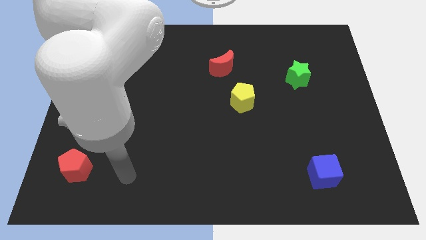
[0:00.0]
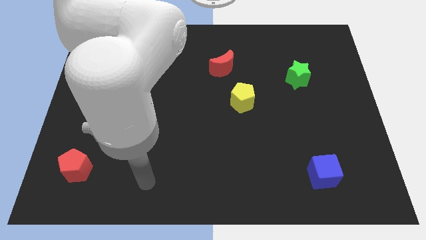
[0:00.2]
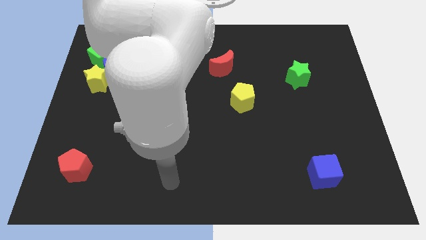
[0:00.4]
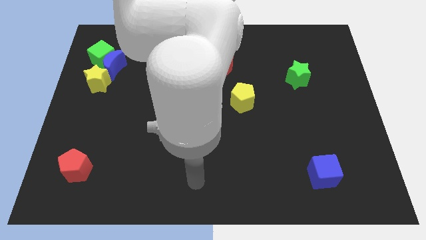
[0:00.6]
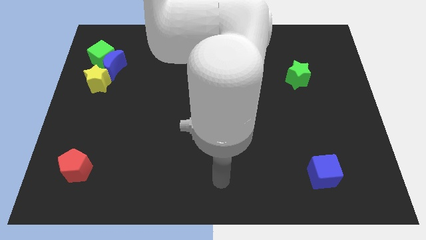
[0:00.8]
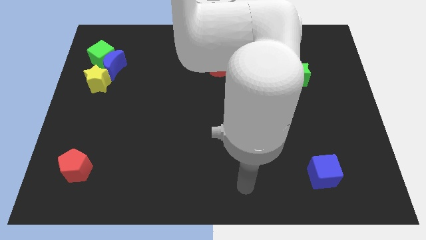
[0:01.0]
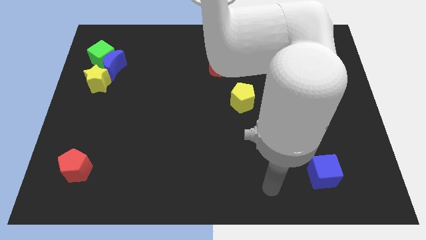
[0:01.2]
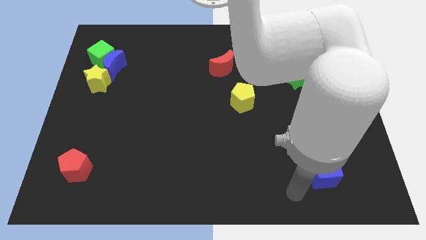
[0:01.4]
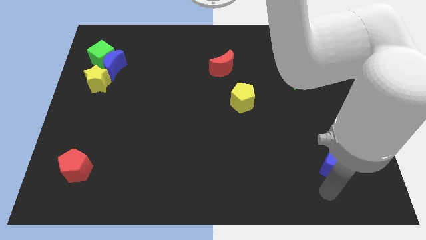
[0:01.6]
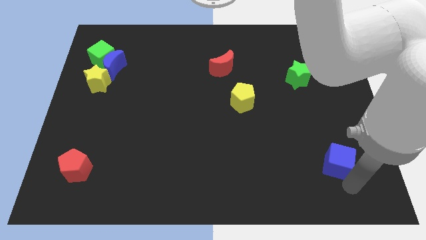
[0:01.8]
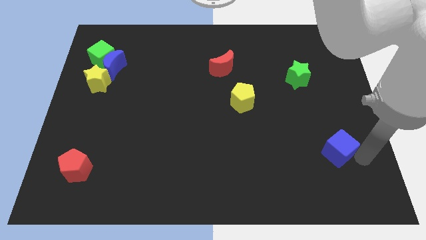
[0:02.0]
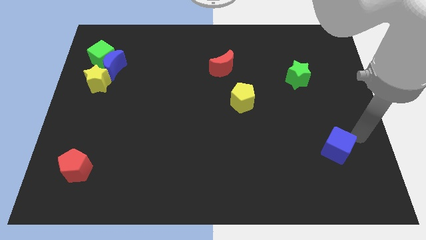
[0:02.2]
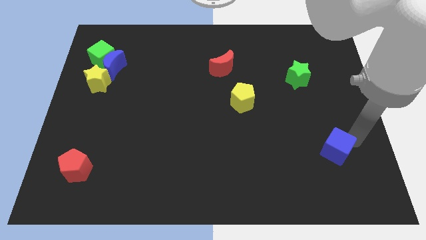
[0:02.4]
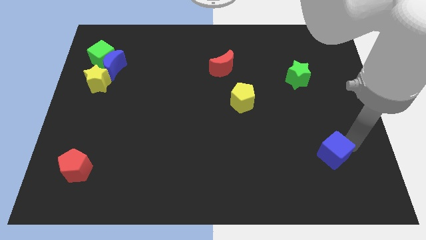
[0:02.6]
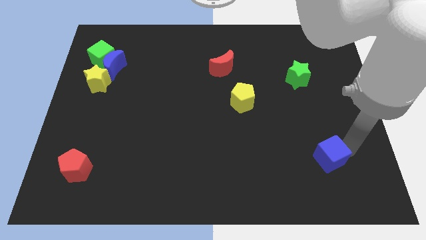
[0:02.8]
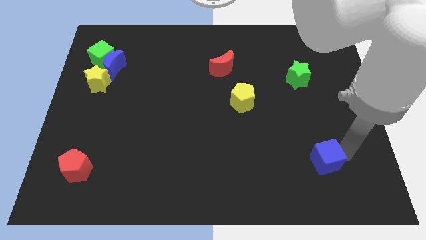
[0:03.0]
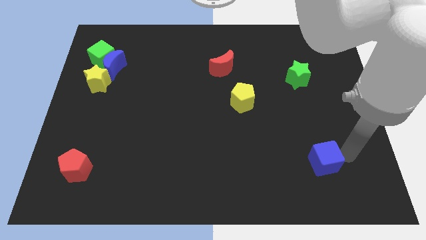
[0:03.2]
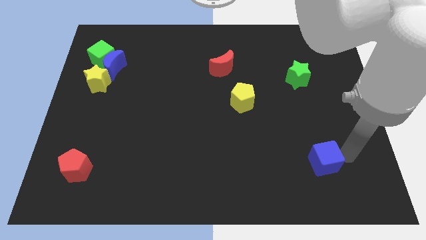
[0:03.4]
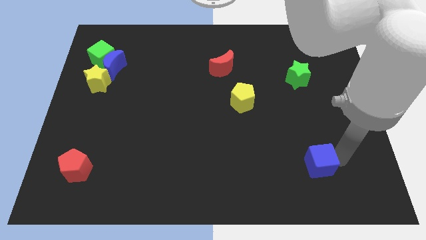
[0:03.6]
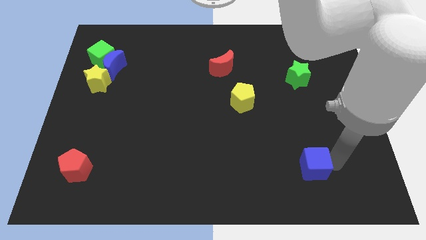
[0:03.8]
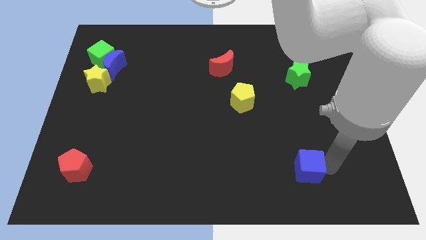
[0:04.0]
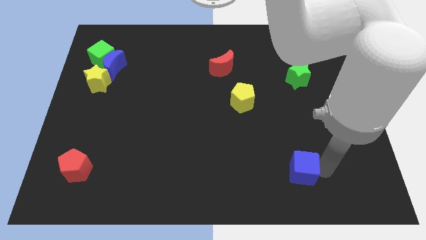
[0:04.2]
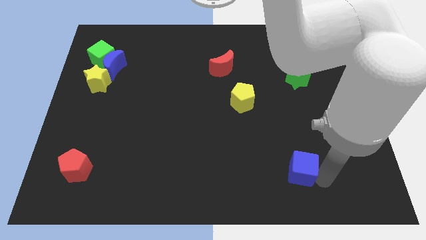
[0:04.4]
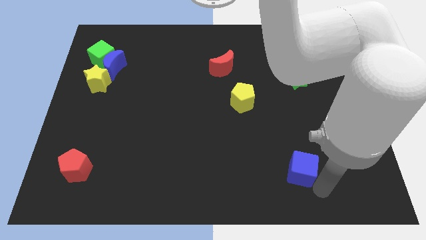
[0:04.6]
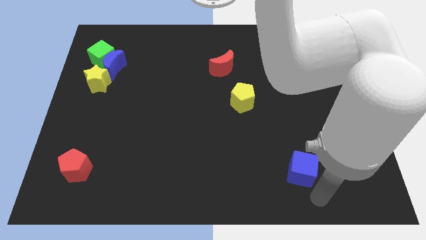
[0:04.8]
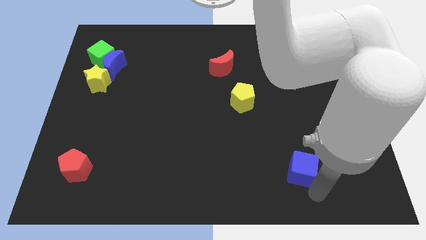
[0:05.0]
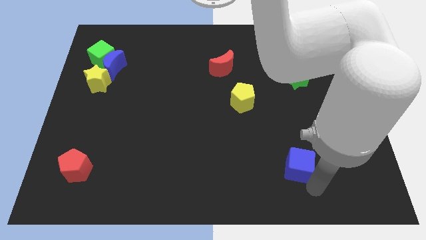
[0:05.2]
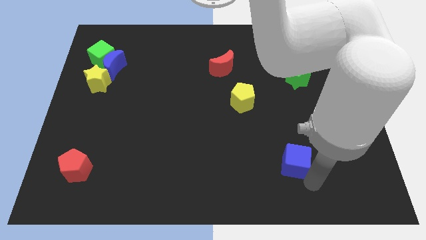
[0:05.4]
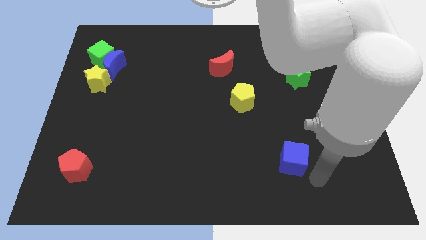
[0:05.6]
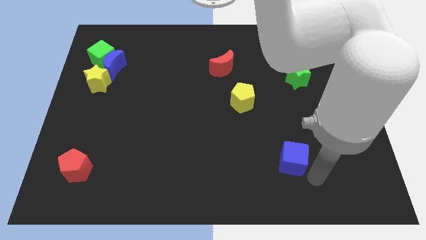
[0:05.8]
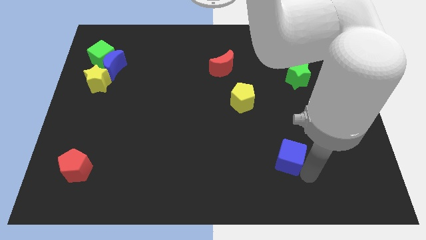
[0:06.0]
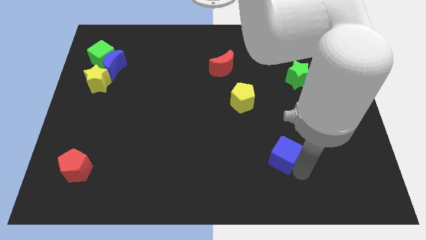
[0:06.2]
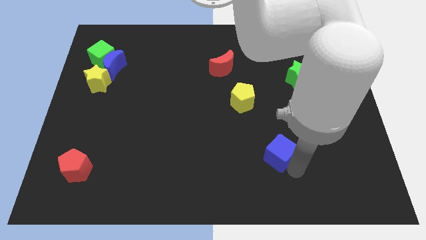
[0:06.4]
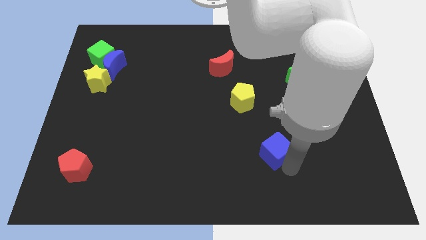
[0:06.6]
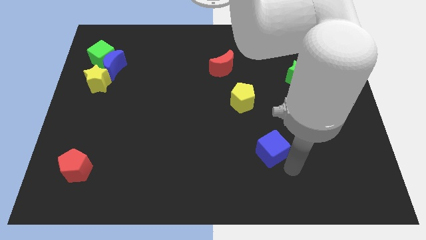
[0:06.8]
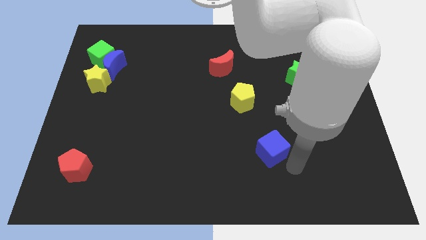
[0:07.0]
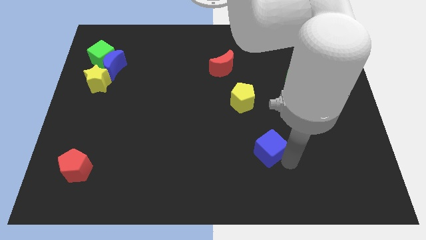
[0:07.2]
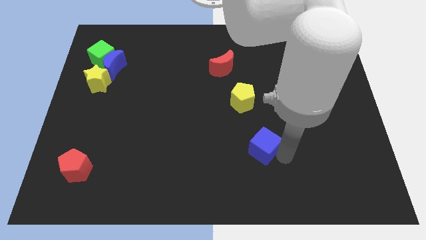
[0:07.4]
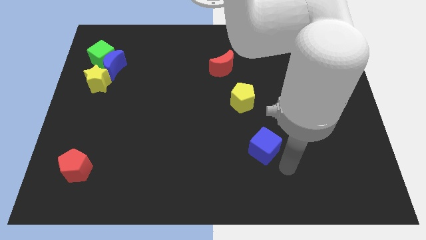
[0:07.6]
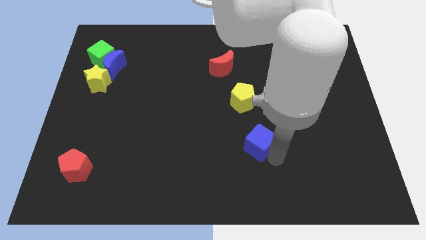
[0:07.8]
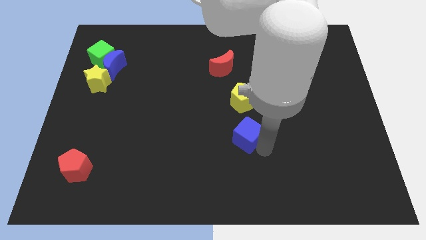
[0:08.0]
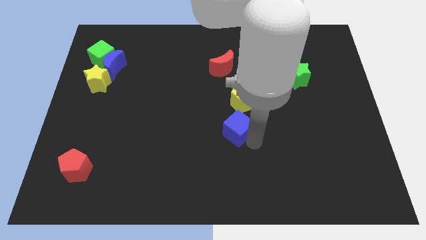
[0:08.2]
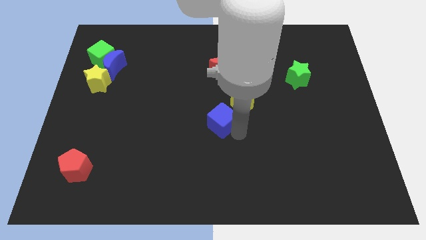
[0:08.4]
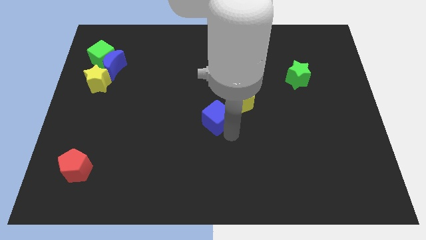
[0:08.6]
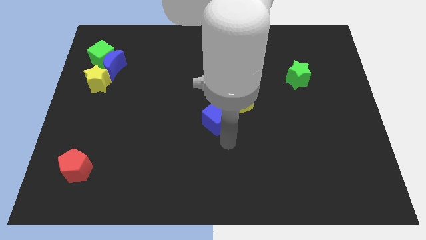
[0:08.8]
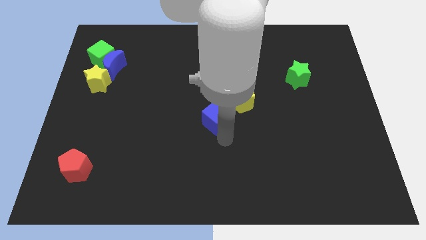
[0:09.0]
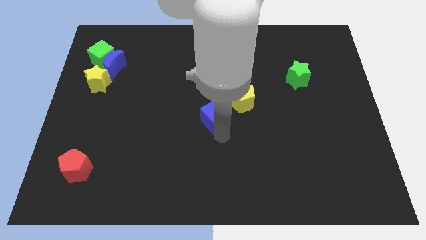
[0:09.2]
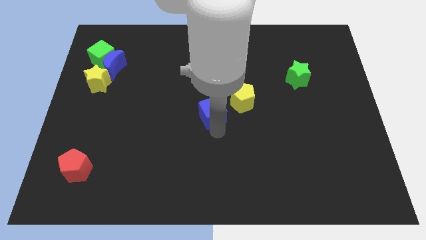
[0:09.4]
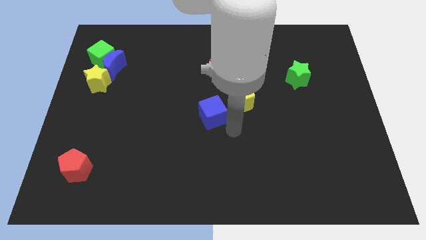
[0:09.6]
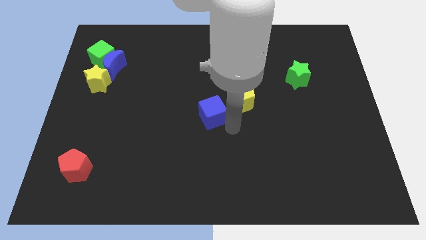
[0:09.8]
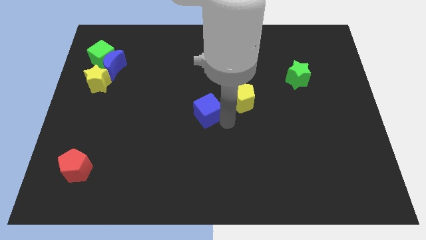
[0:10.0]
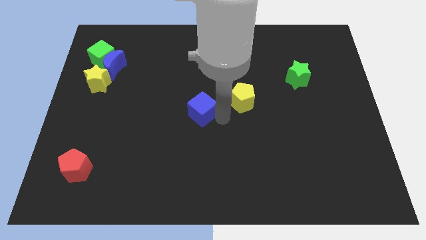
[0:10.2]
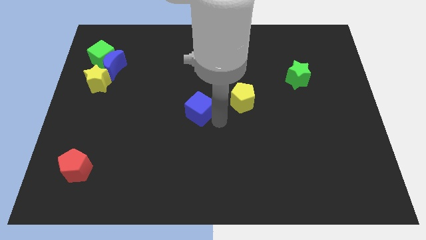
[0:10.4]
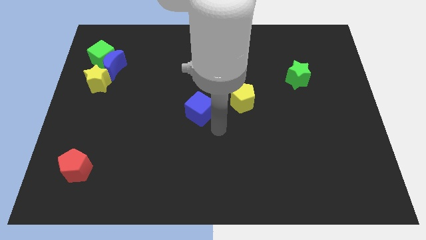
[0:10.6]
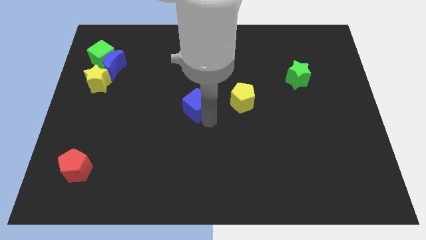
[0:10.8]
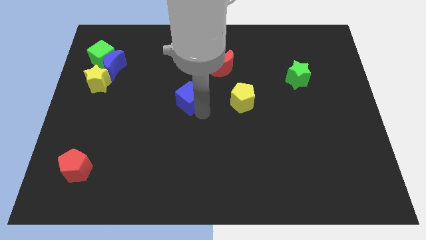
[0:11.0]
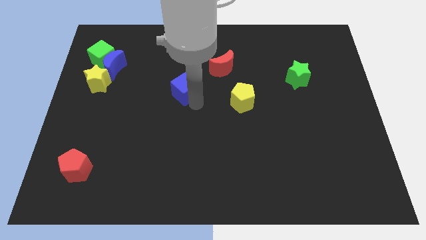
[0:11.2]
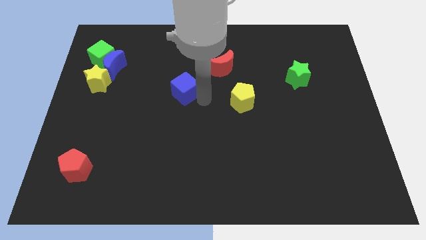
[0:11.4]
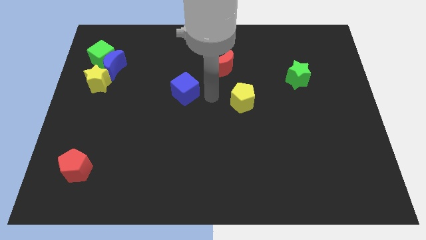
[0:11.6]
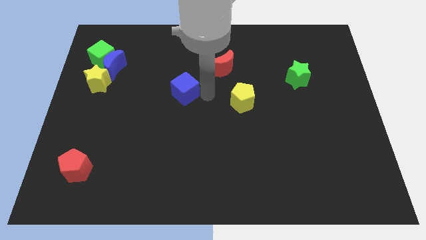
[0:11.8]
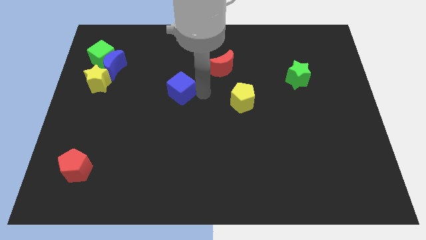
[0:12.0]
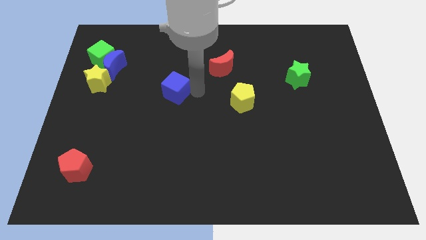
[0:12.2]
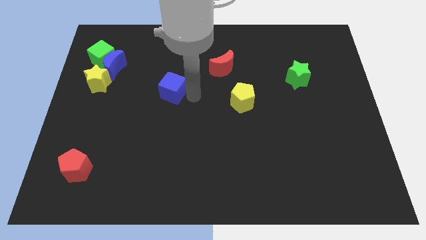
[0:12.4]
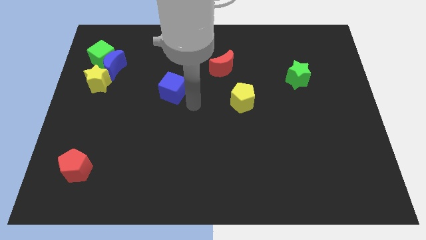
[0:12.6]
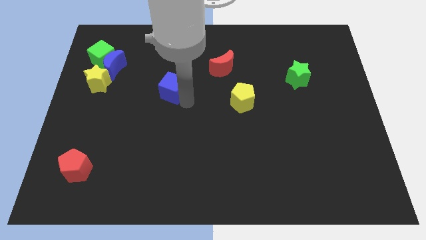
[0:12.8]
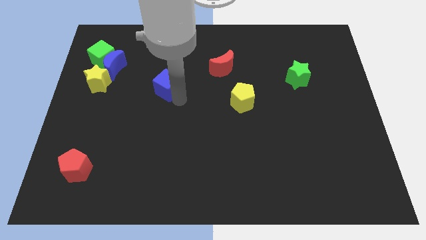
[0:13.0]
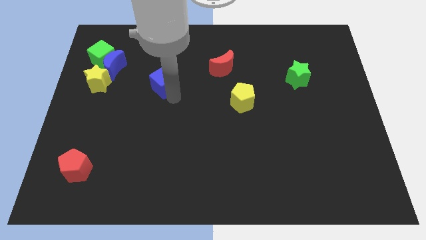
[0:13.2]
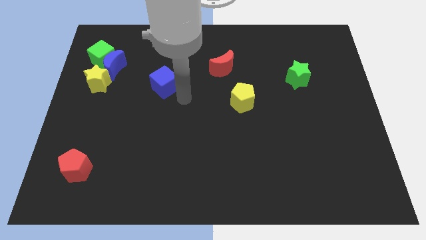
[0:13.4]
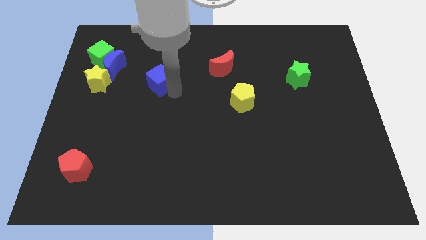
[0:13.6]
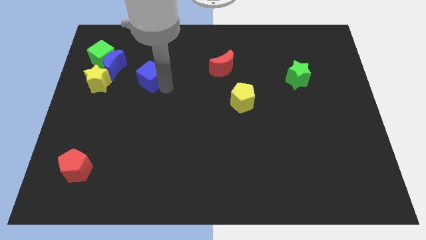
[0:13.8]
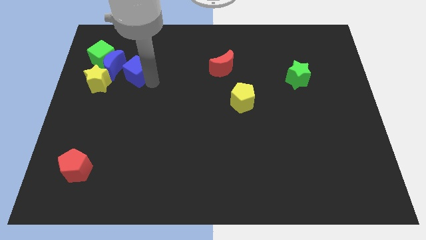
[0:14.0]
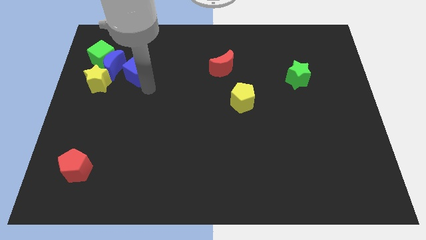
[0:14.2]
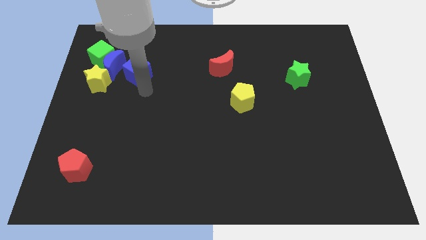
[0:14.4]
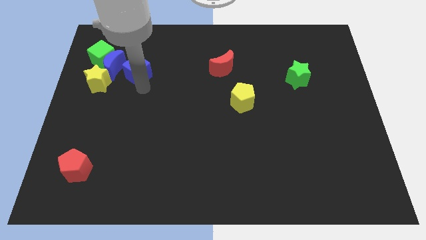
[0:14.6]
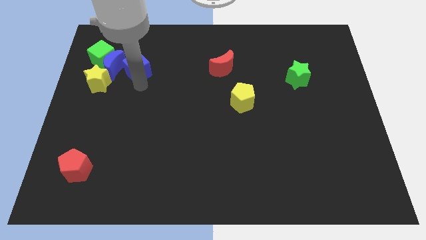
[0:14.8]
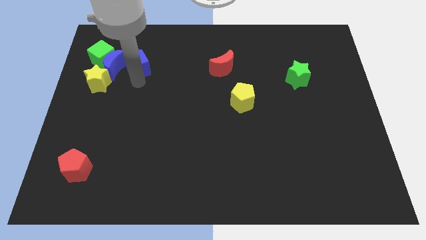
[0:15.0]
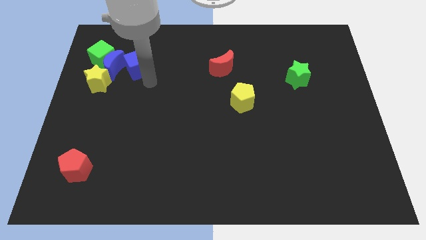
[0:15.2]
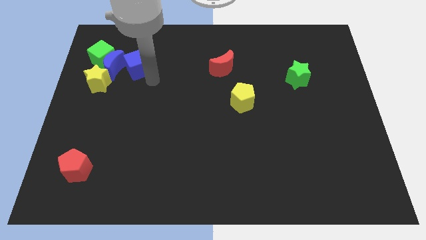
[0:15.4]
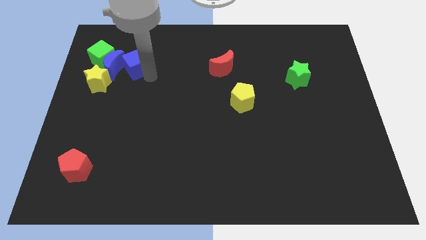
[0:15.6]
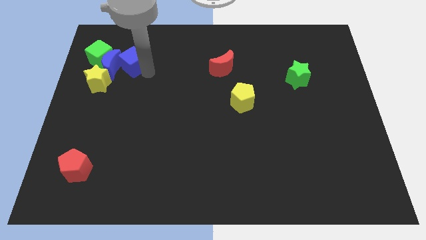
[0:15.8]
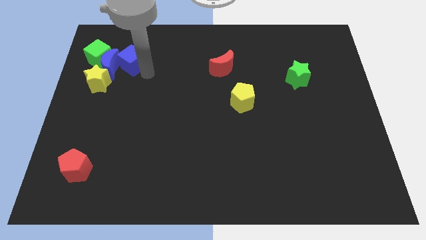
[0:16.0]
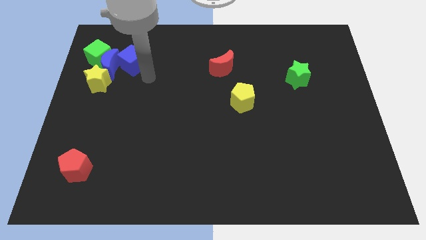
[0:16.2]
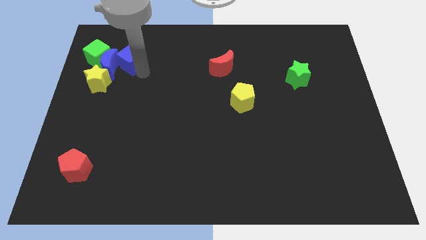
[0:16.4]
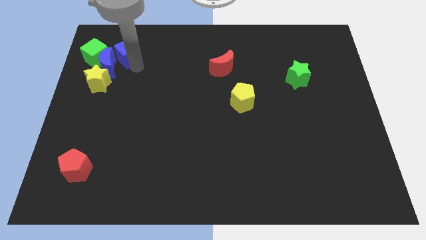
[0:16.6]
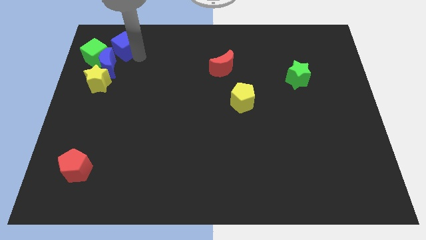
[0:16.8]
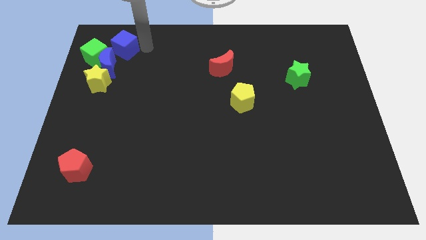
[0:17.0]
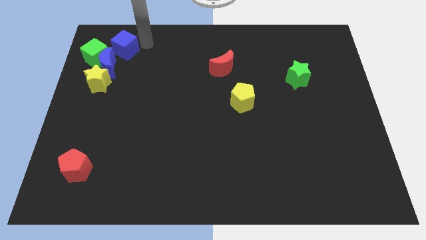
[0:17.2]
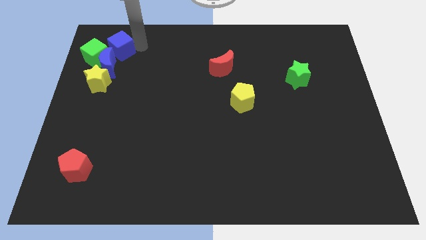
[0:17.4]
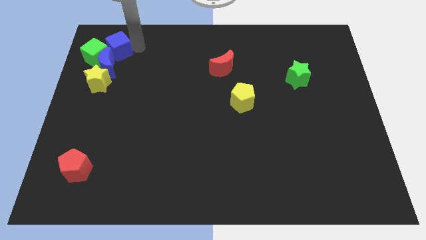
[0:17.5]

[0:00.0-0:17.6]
push the blue cube close to the green cube
